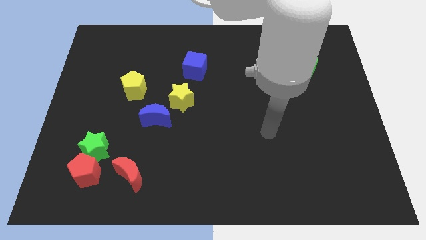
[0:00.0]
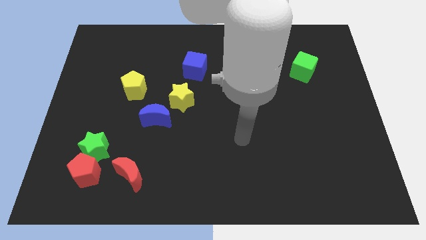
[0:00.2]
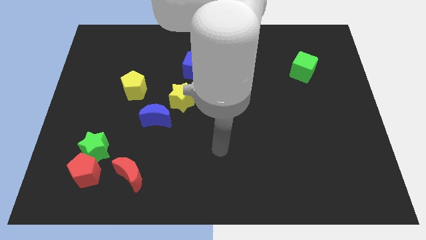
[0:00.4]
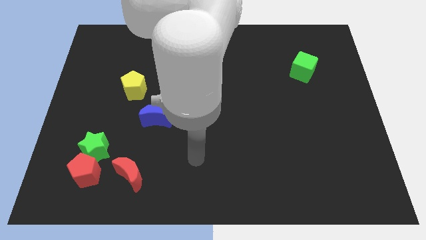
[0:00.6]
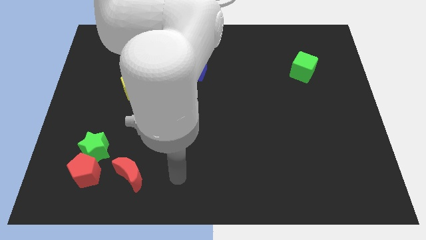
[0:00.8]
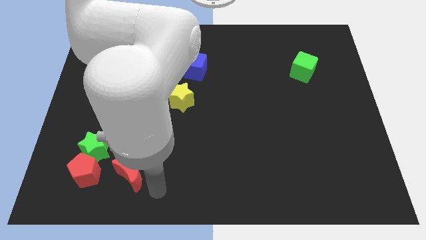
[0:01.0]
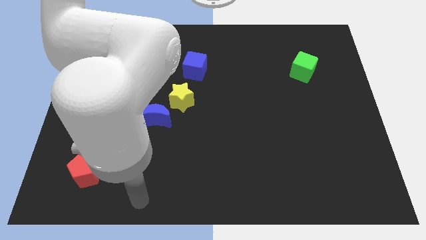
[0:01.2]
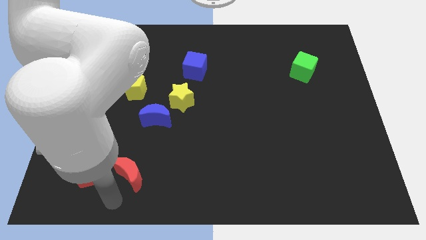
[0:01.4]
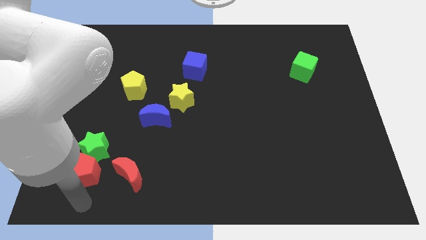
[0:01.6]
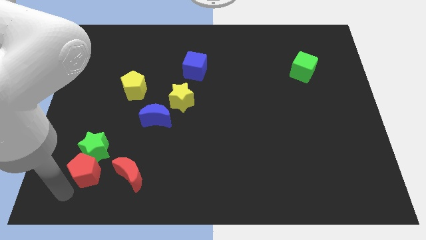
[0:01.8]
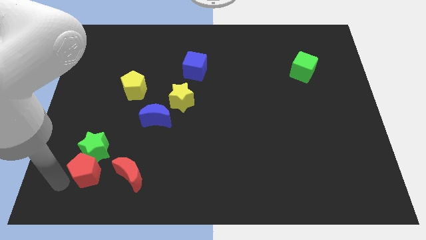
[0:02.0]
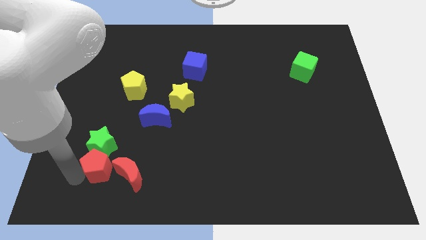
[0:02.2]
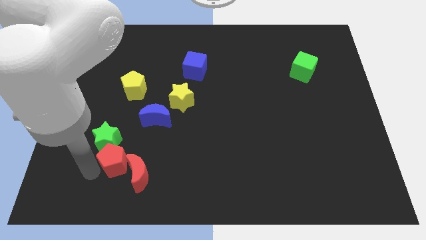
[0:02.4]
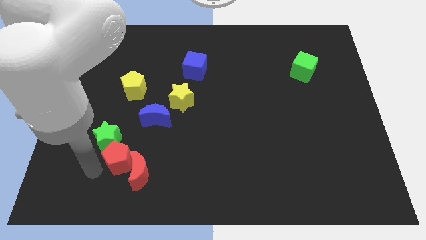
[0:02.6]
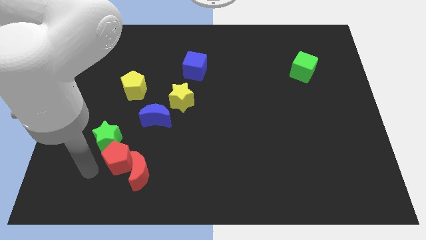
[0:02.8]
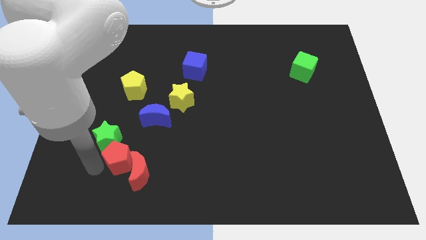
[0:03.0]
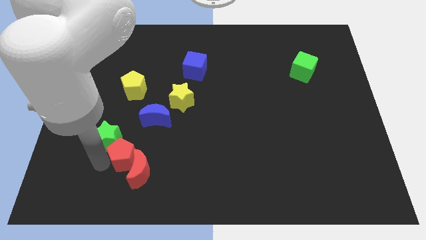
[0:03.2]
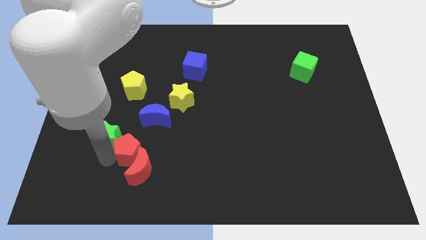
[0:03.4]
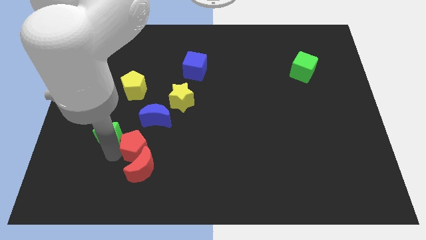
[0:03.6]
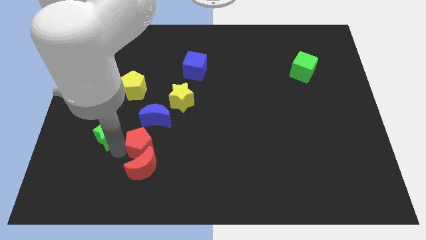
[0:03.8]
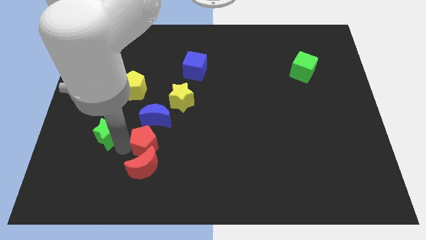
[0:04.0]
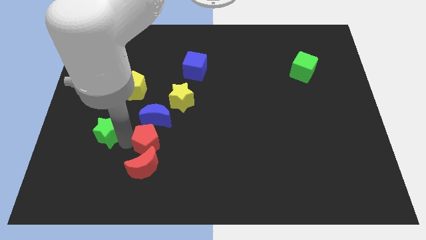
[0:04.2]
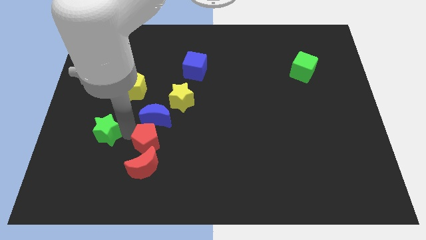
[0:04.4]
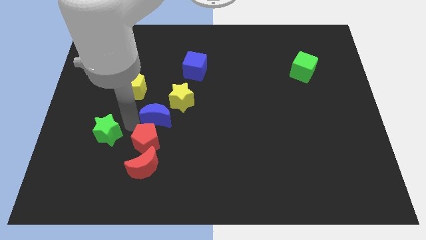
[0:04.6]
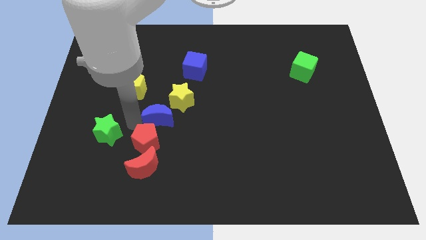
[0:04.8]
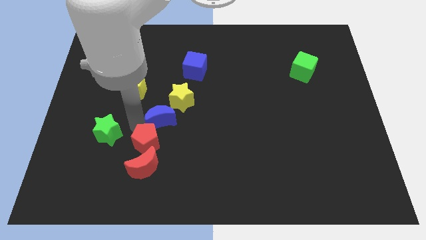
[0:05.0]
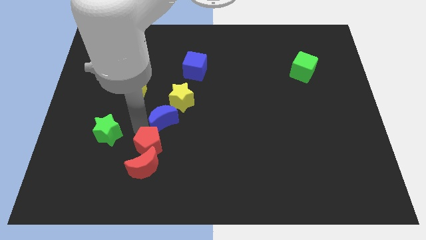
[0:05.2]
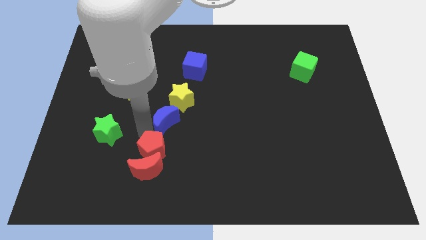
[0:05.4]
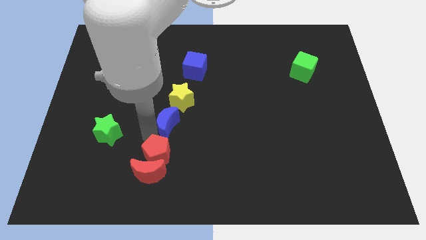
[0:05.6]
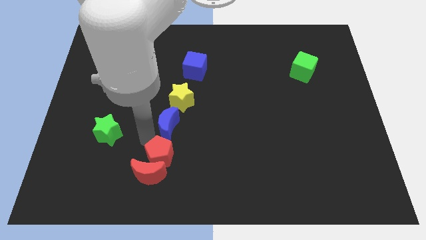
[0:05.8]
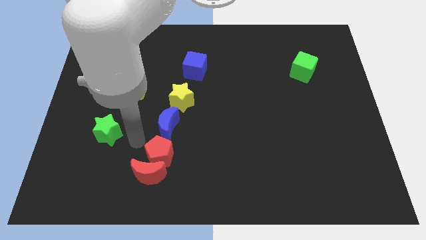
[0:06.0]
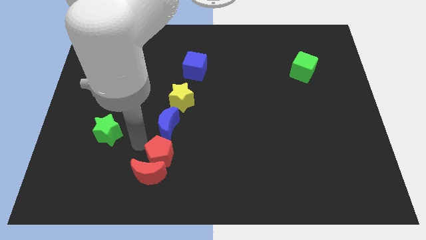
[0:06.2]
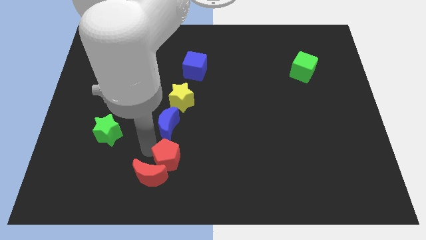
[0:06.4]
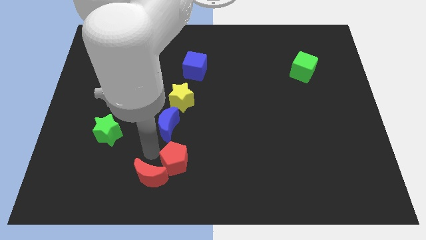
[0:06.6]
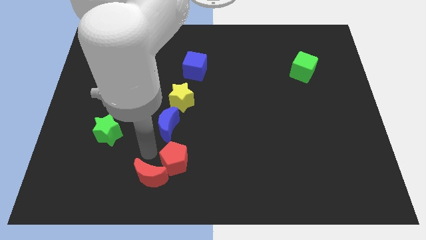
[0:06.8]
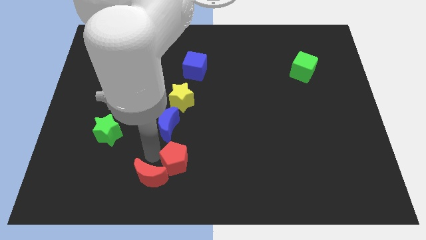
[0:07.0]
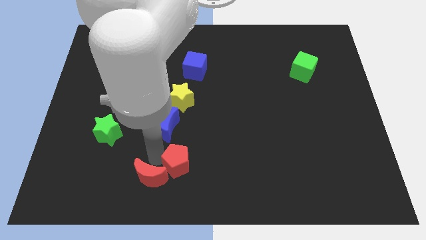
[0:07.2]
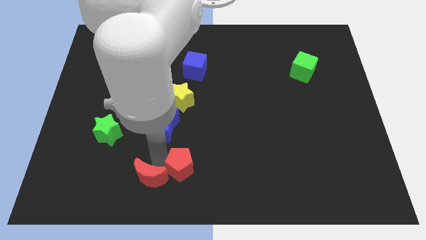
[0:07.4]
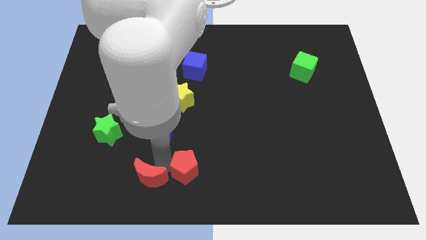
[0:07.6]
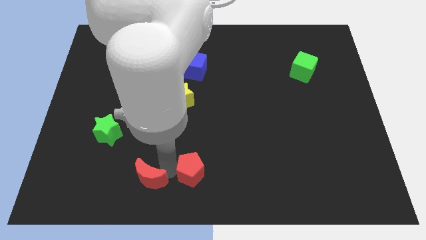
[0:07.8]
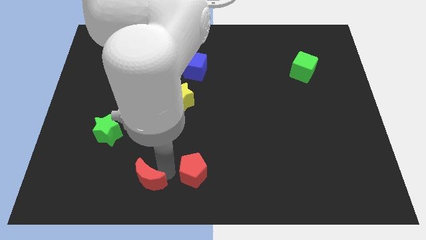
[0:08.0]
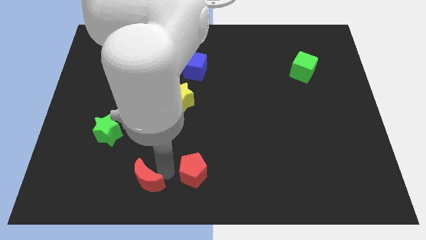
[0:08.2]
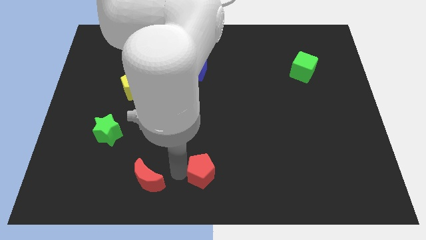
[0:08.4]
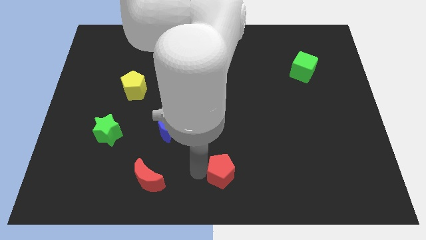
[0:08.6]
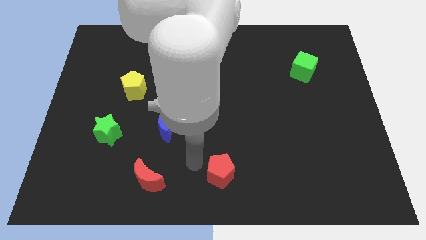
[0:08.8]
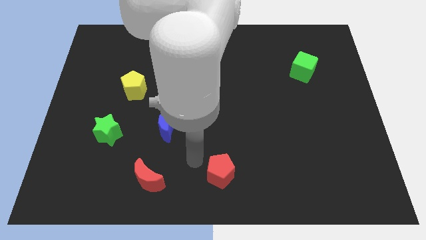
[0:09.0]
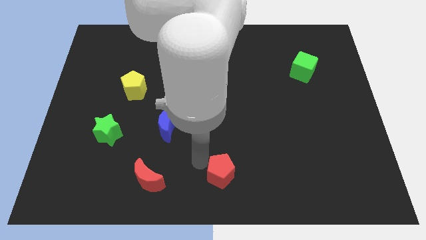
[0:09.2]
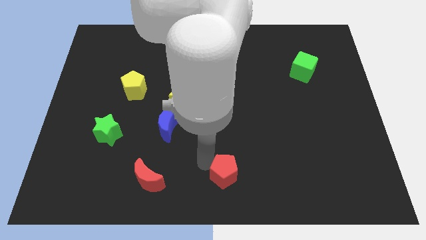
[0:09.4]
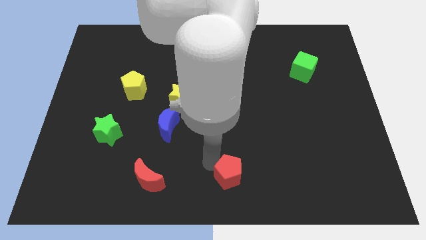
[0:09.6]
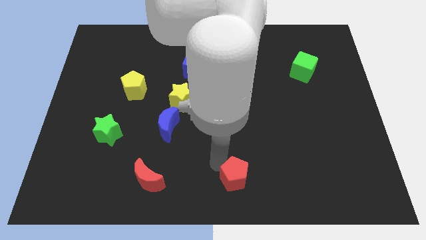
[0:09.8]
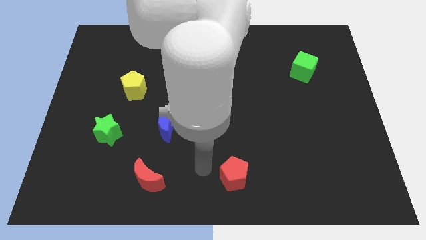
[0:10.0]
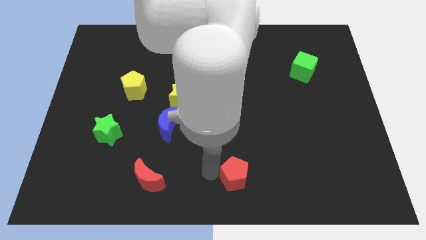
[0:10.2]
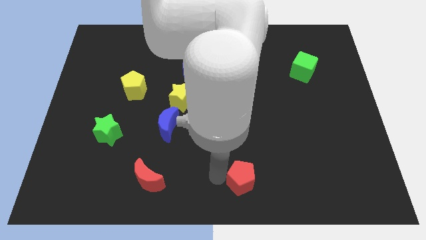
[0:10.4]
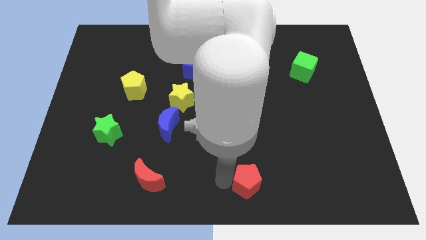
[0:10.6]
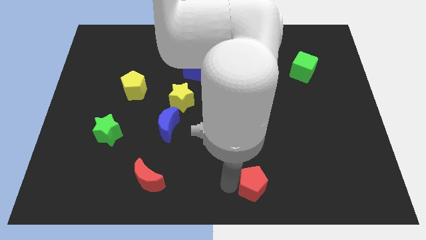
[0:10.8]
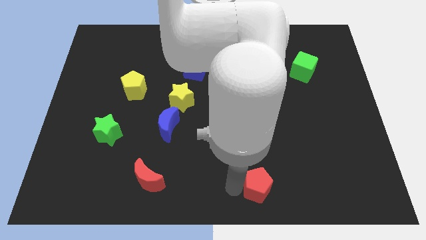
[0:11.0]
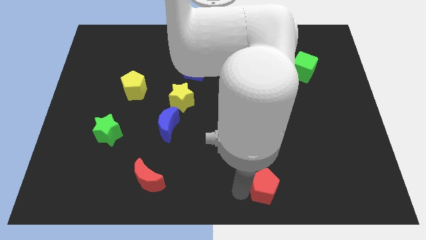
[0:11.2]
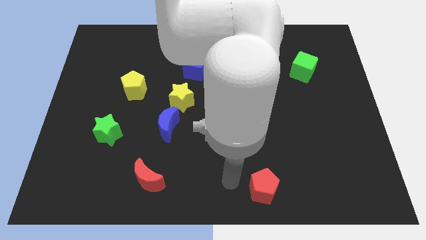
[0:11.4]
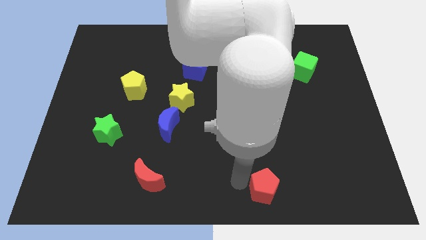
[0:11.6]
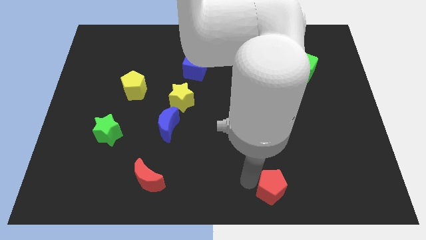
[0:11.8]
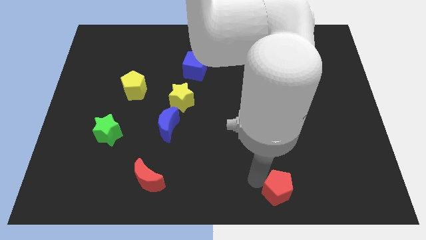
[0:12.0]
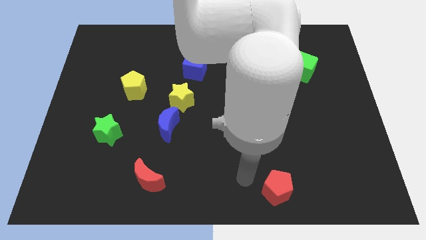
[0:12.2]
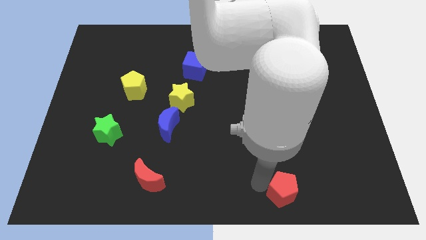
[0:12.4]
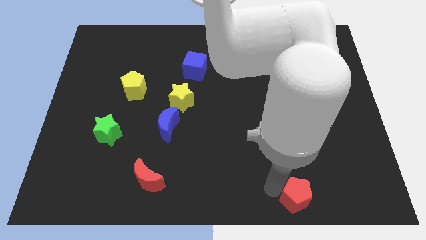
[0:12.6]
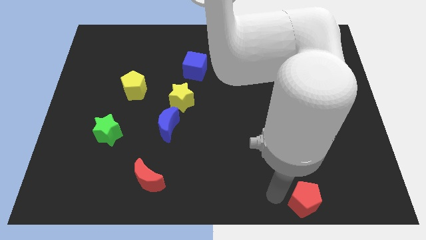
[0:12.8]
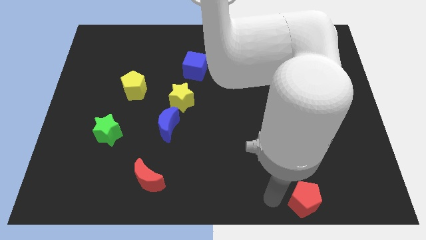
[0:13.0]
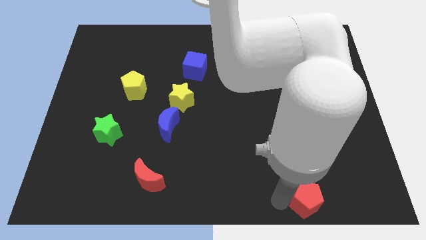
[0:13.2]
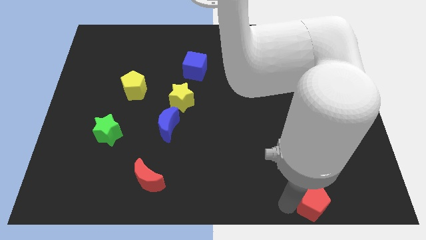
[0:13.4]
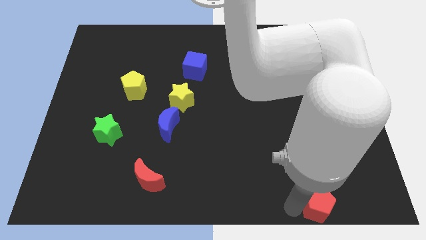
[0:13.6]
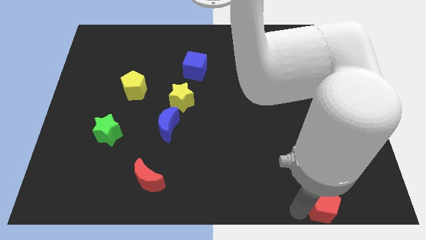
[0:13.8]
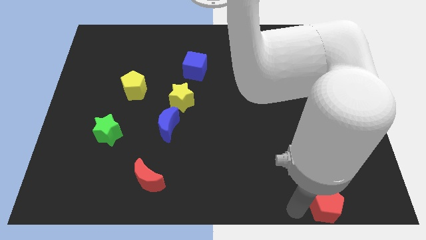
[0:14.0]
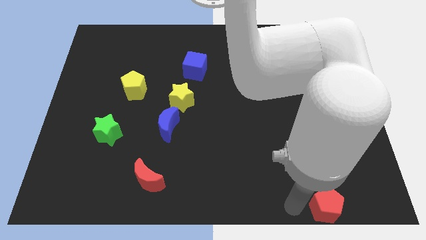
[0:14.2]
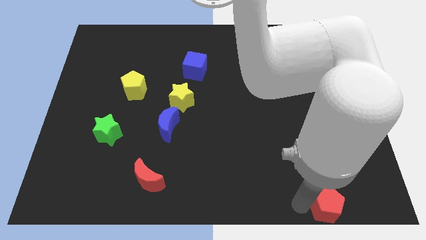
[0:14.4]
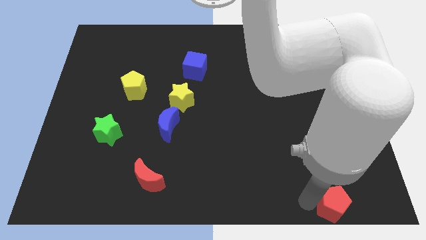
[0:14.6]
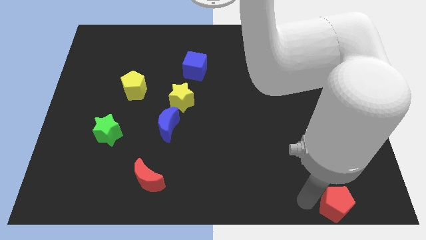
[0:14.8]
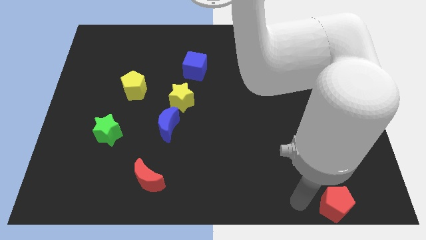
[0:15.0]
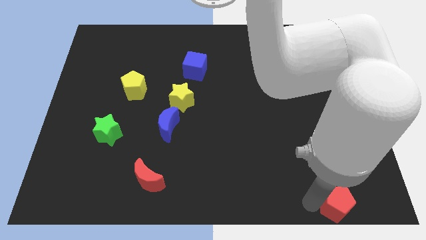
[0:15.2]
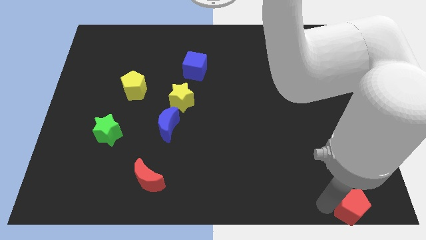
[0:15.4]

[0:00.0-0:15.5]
slide the red pentagon to the bottom right of the board
